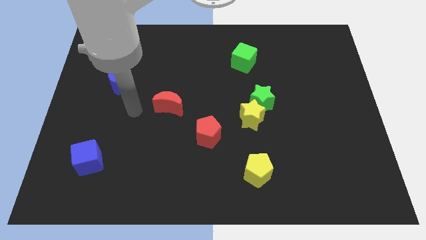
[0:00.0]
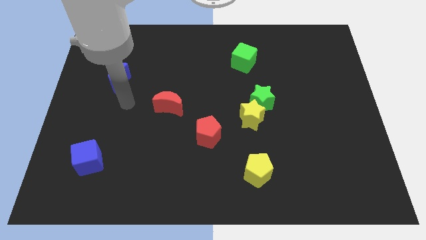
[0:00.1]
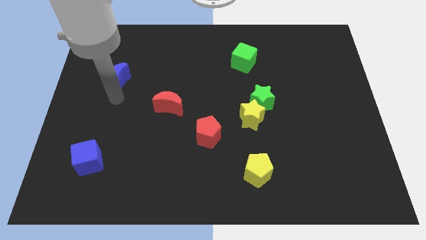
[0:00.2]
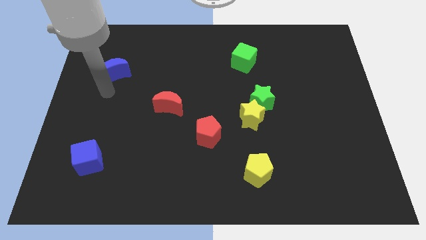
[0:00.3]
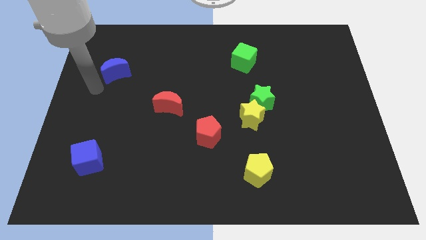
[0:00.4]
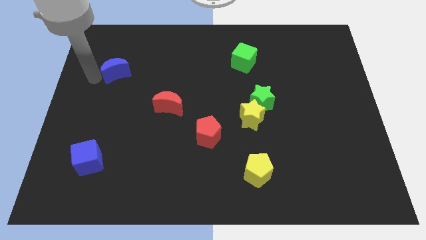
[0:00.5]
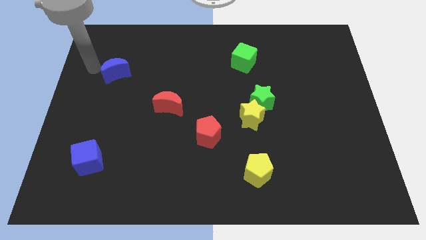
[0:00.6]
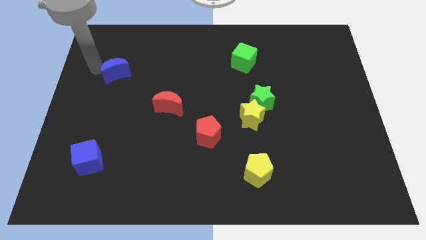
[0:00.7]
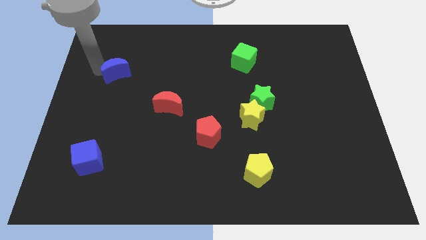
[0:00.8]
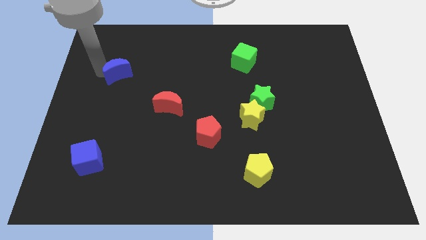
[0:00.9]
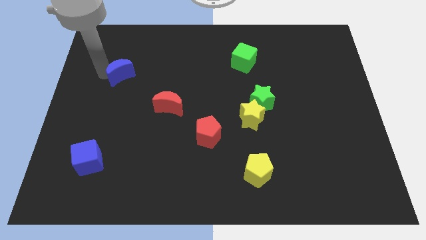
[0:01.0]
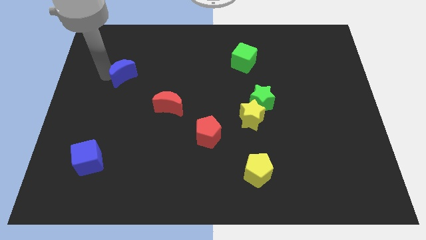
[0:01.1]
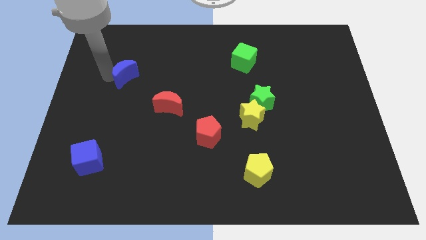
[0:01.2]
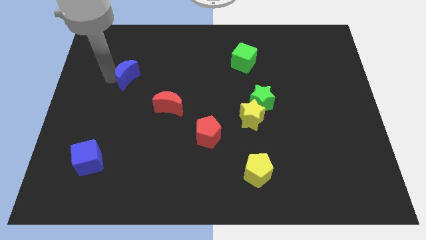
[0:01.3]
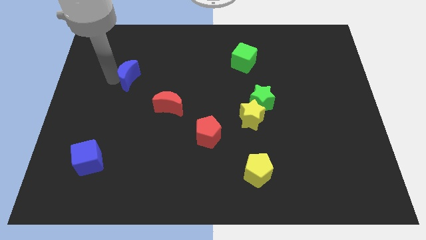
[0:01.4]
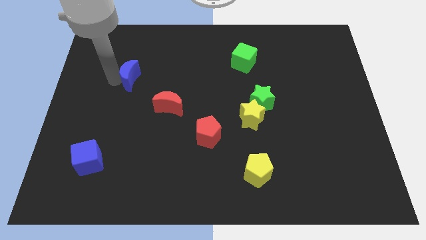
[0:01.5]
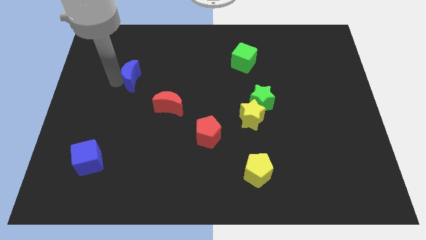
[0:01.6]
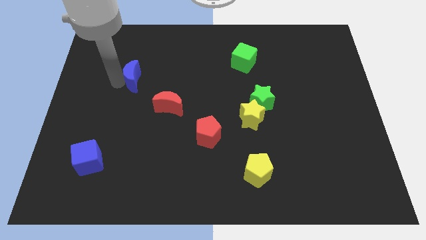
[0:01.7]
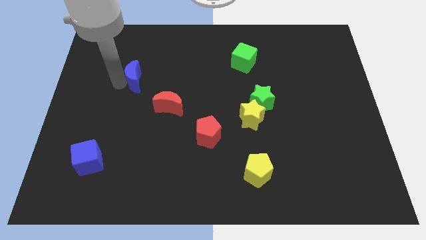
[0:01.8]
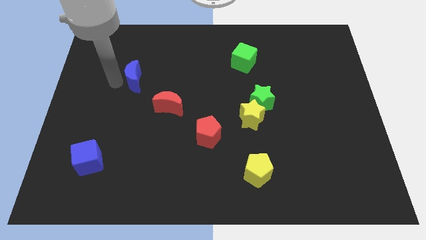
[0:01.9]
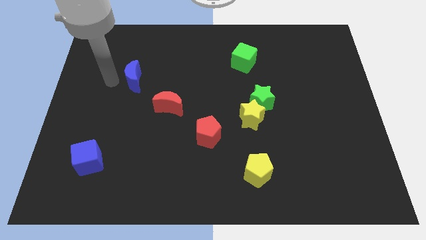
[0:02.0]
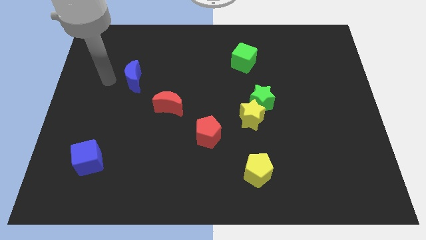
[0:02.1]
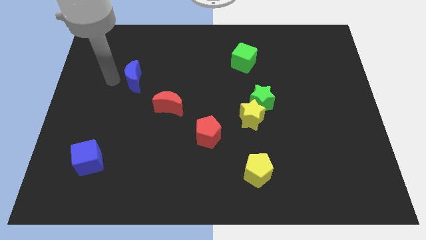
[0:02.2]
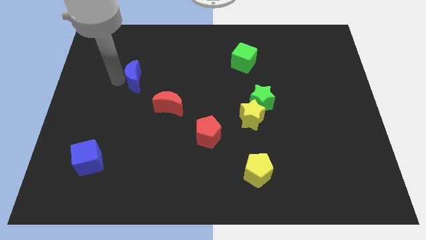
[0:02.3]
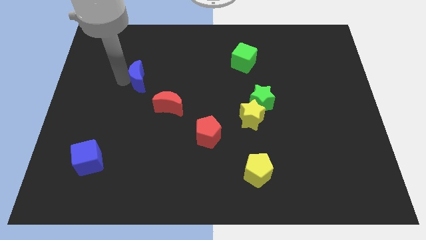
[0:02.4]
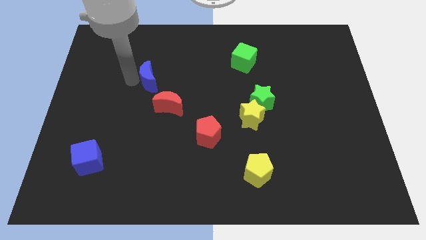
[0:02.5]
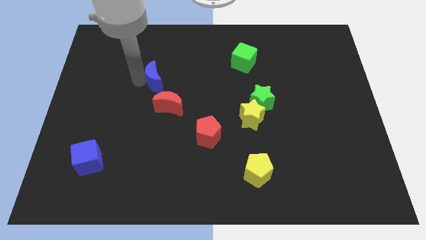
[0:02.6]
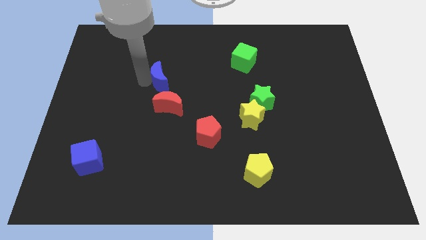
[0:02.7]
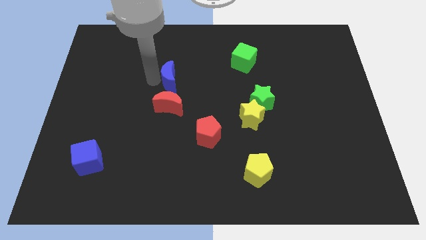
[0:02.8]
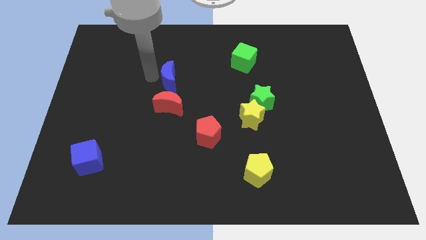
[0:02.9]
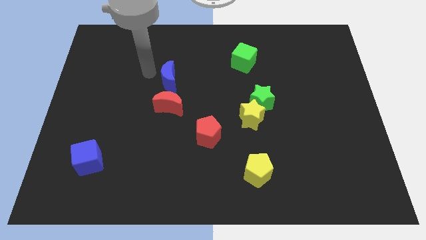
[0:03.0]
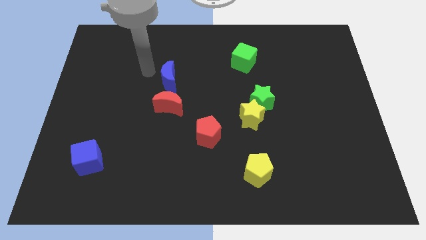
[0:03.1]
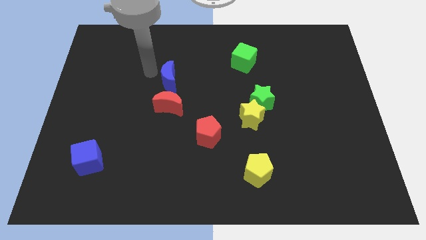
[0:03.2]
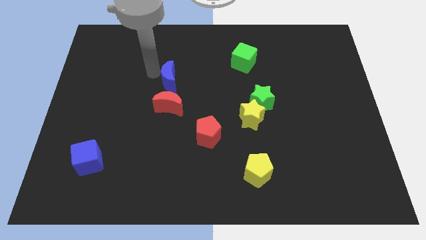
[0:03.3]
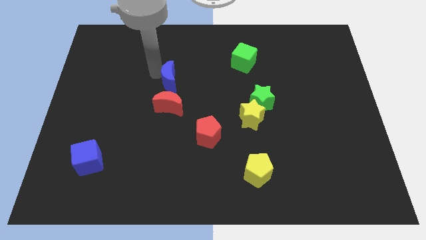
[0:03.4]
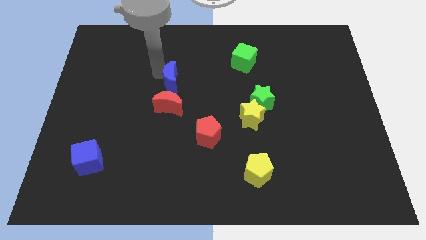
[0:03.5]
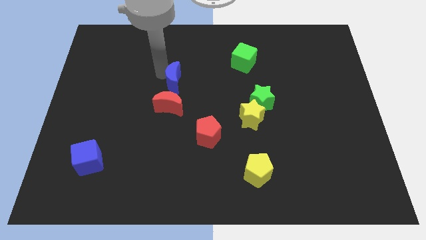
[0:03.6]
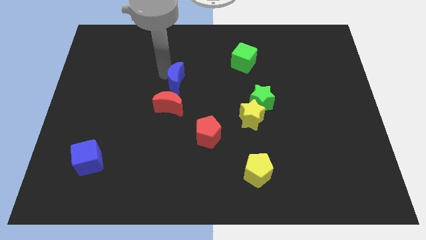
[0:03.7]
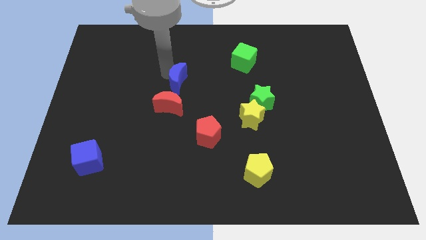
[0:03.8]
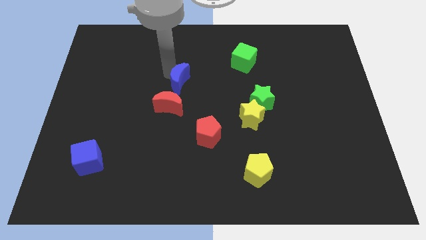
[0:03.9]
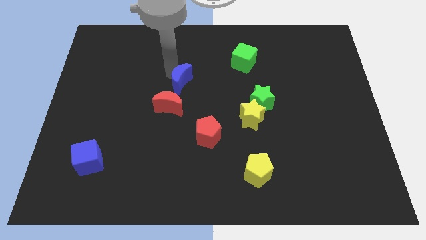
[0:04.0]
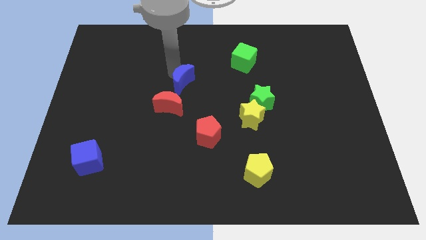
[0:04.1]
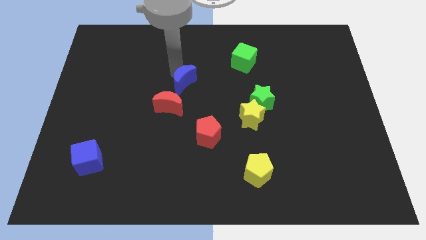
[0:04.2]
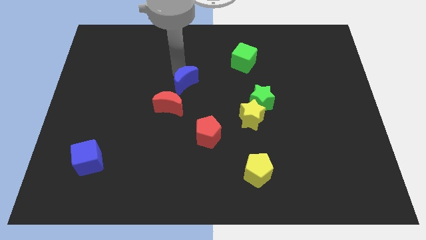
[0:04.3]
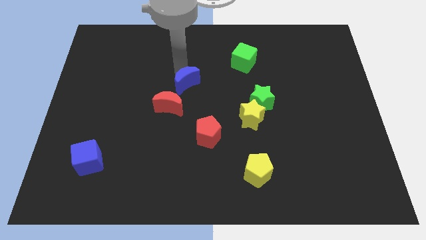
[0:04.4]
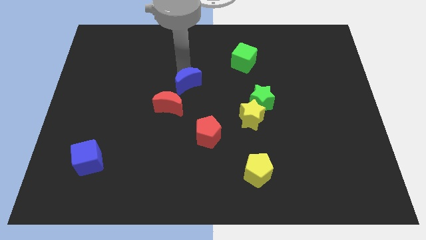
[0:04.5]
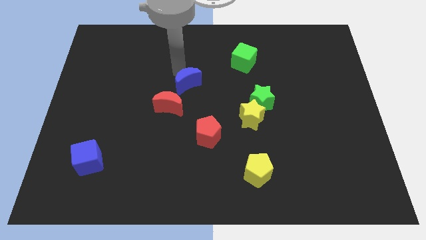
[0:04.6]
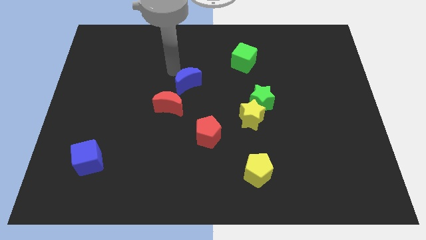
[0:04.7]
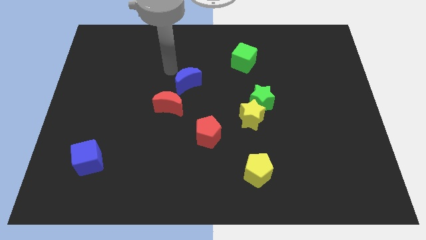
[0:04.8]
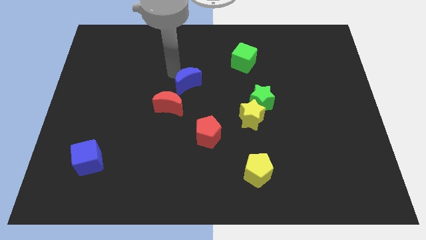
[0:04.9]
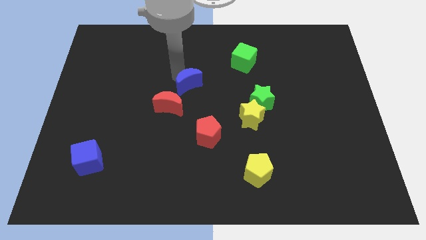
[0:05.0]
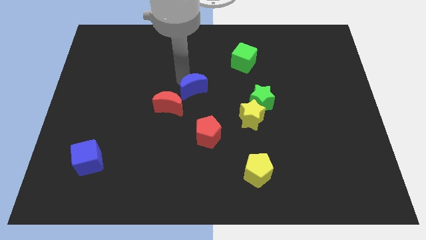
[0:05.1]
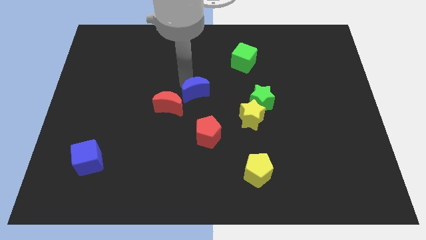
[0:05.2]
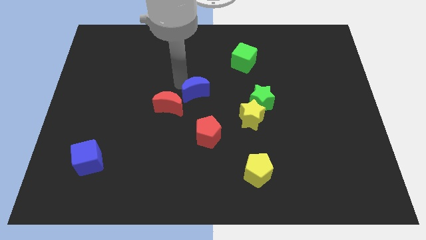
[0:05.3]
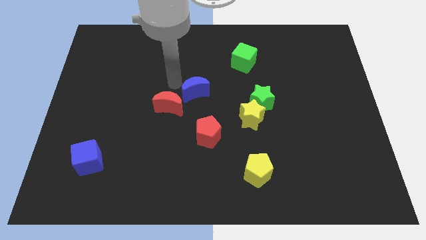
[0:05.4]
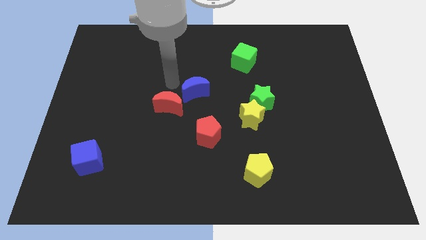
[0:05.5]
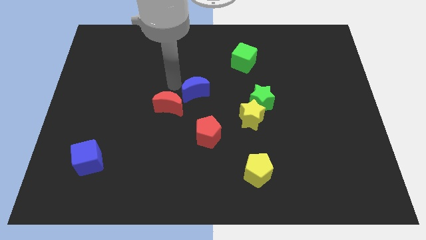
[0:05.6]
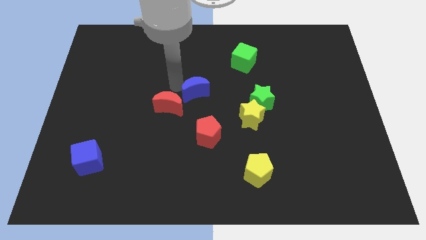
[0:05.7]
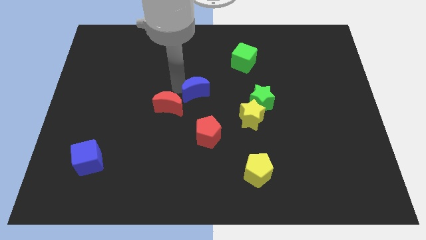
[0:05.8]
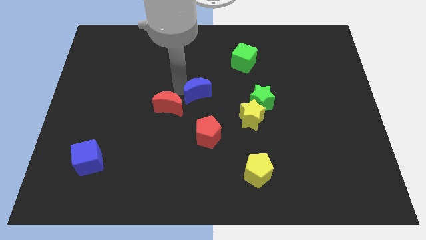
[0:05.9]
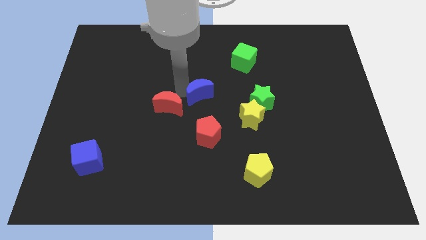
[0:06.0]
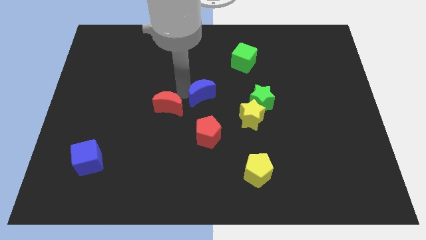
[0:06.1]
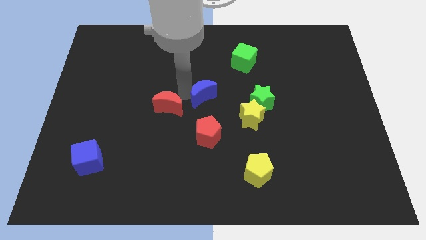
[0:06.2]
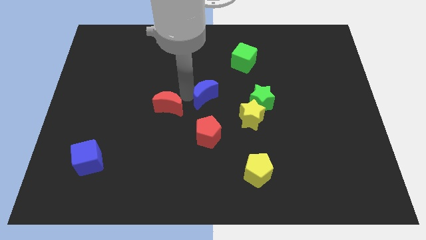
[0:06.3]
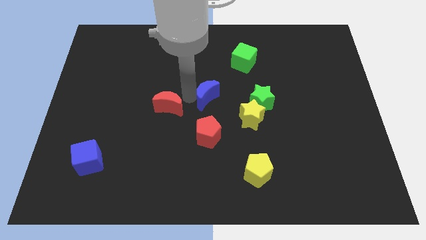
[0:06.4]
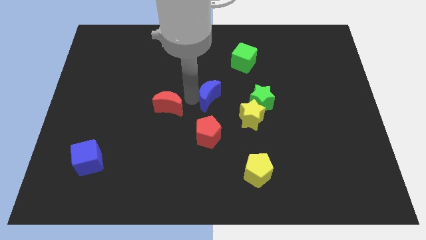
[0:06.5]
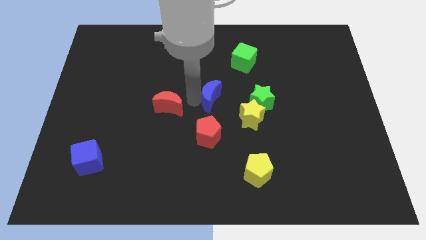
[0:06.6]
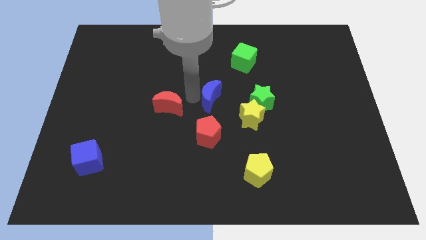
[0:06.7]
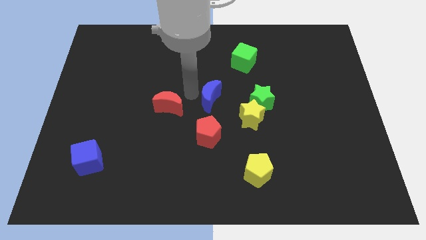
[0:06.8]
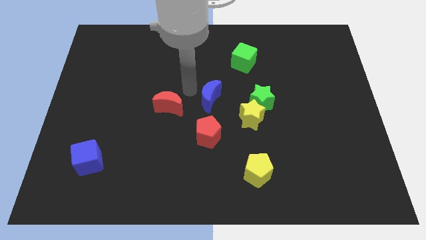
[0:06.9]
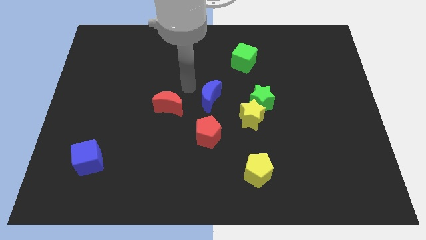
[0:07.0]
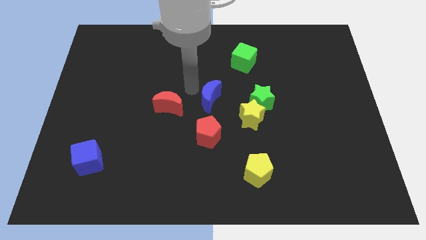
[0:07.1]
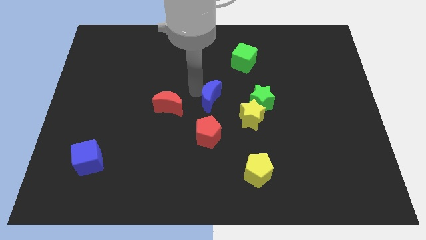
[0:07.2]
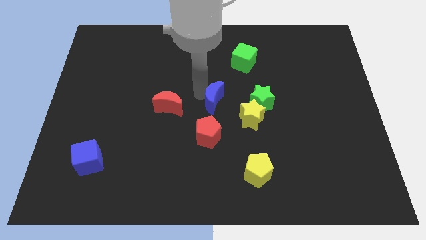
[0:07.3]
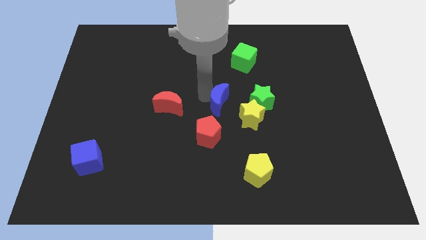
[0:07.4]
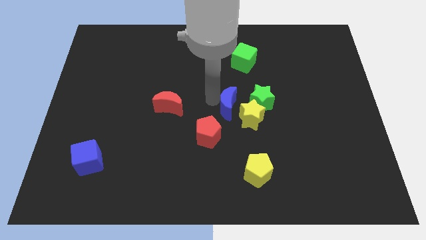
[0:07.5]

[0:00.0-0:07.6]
push the blue moon close to the yellow star
